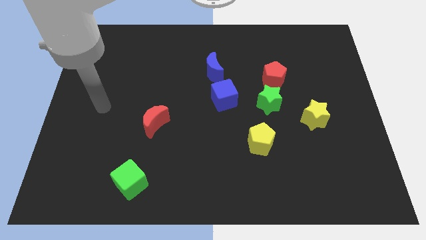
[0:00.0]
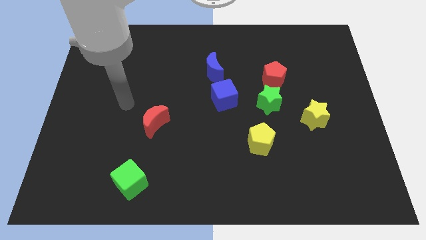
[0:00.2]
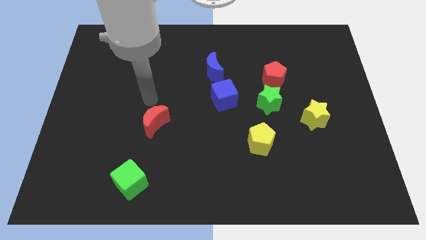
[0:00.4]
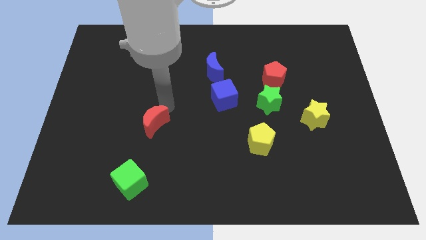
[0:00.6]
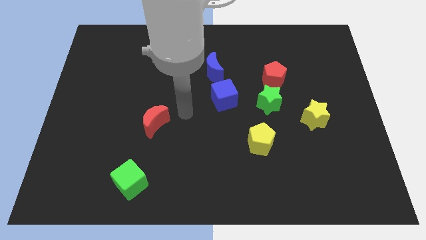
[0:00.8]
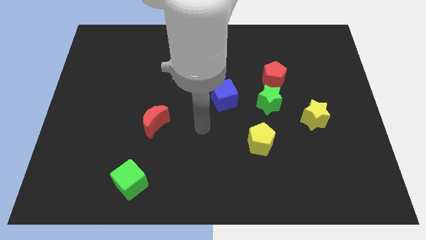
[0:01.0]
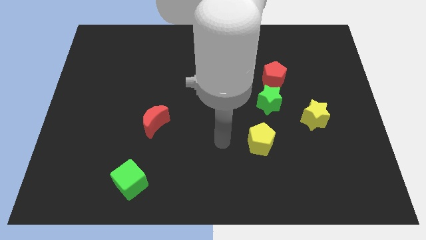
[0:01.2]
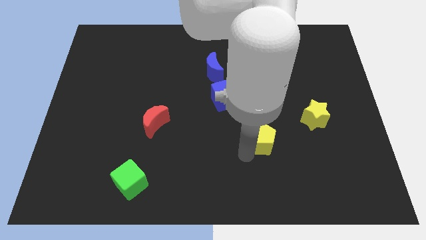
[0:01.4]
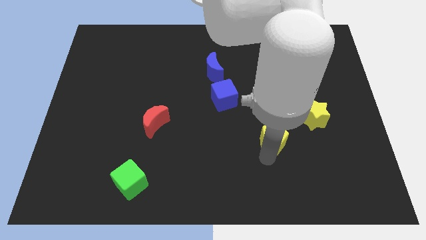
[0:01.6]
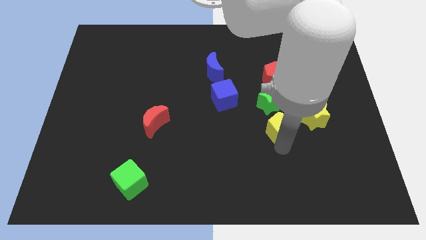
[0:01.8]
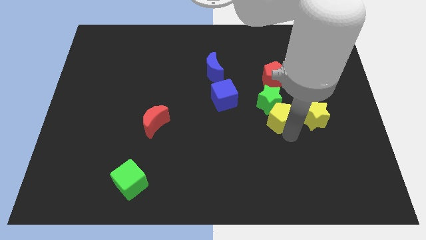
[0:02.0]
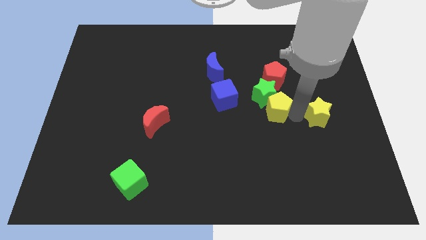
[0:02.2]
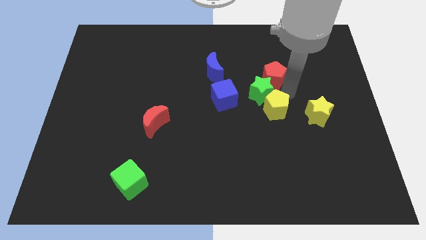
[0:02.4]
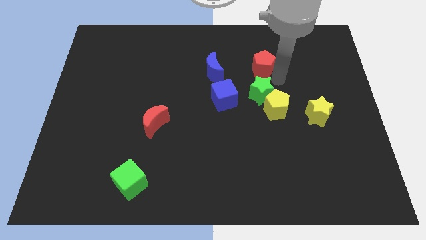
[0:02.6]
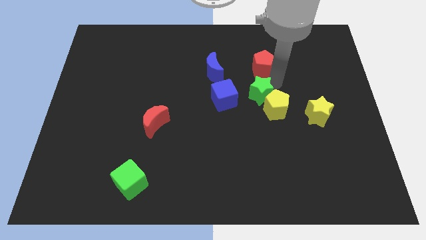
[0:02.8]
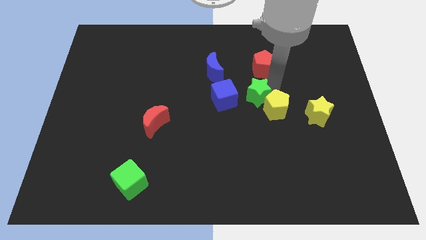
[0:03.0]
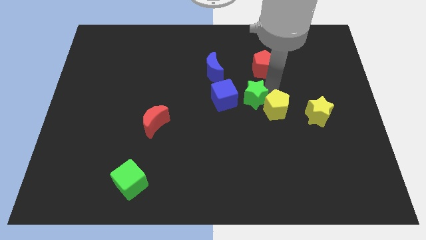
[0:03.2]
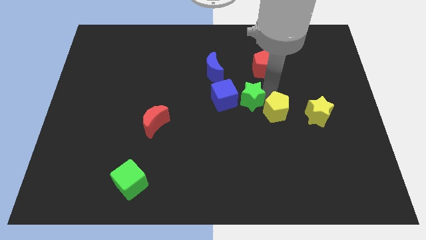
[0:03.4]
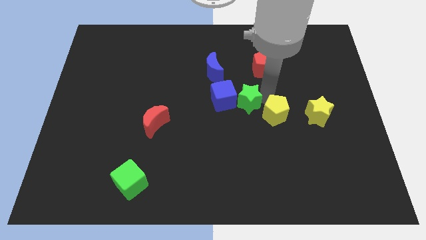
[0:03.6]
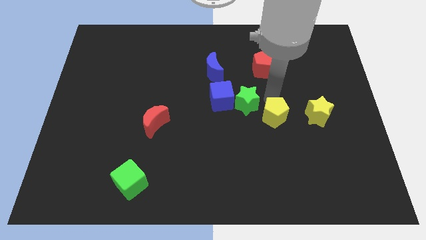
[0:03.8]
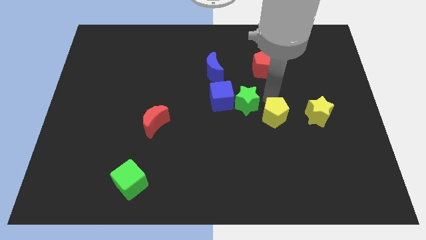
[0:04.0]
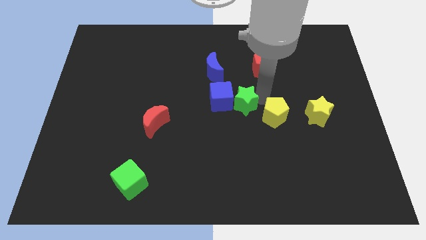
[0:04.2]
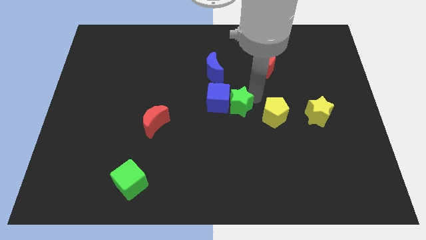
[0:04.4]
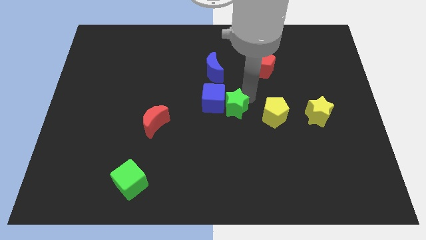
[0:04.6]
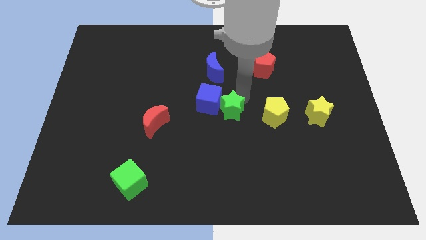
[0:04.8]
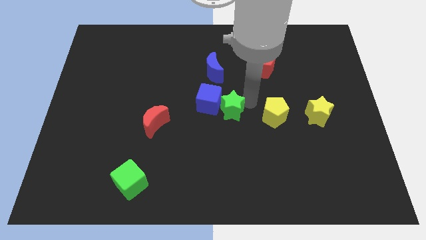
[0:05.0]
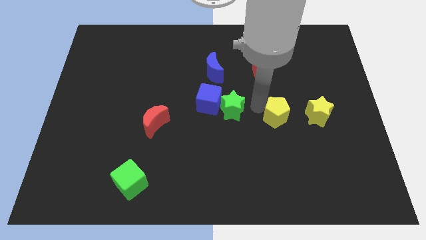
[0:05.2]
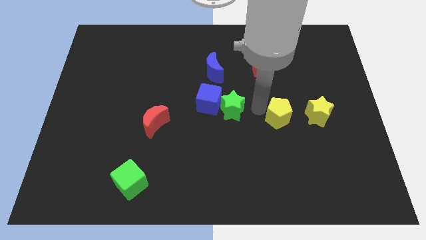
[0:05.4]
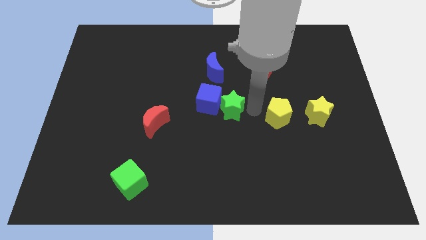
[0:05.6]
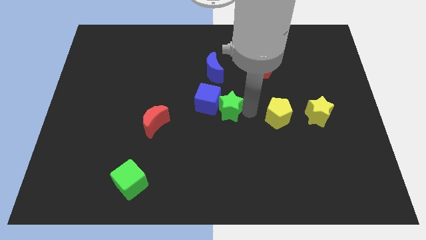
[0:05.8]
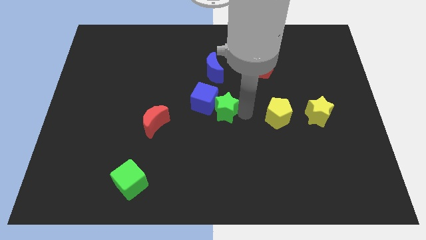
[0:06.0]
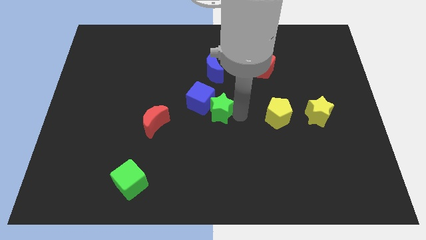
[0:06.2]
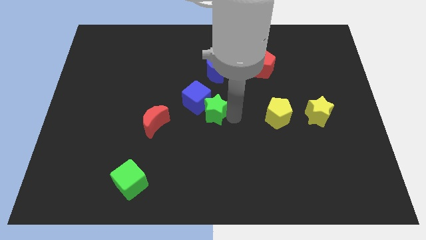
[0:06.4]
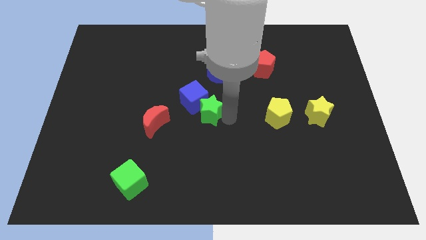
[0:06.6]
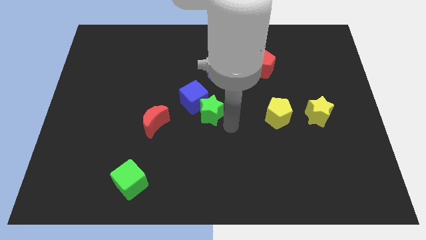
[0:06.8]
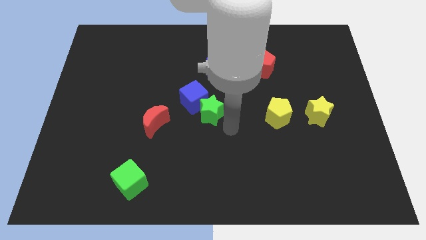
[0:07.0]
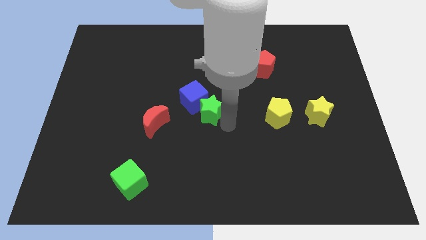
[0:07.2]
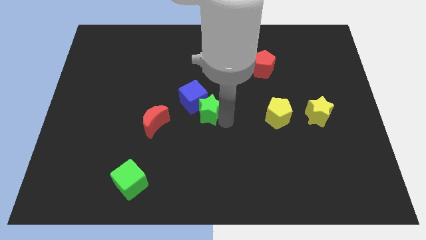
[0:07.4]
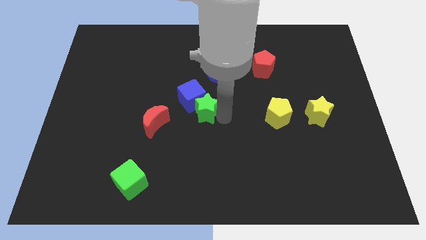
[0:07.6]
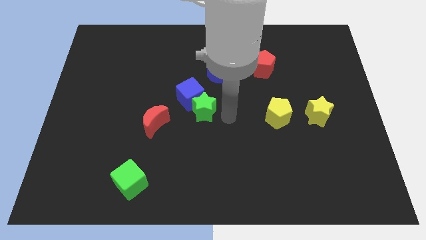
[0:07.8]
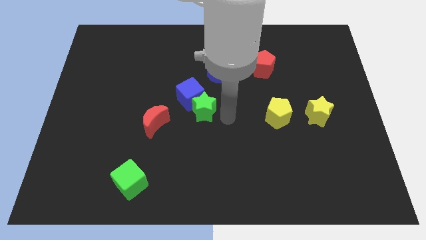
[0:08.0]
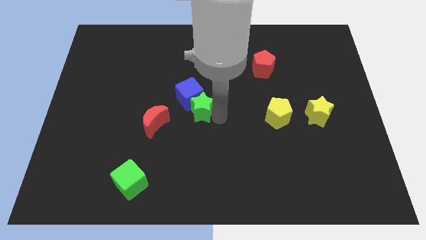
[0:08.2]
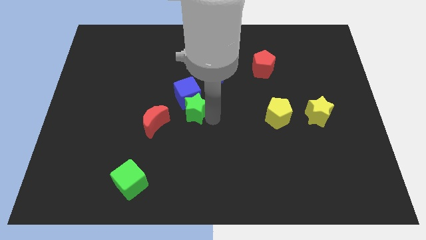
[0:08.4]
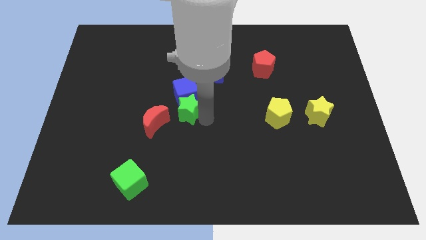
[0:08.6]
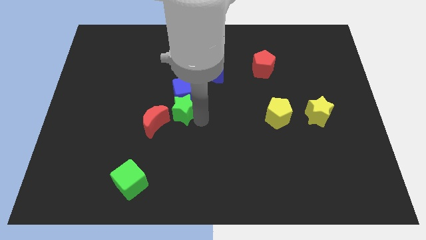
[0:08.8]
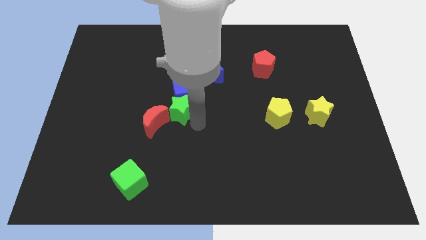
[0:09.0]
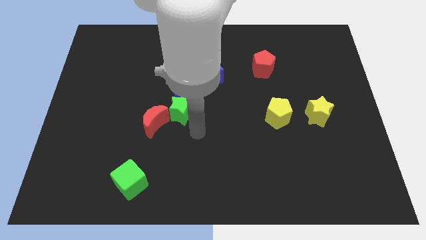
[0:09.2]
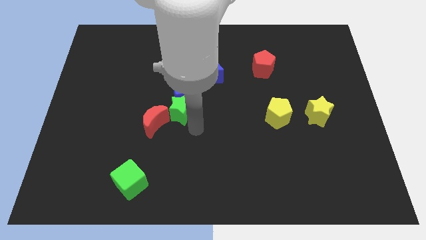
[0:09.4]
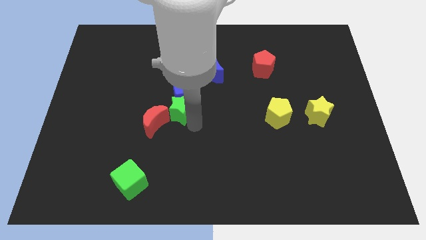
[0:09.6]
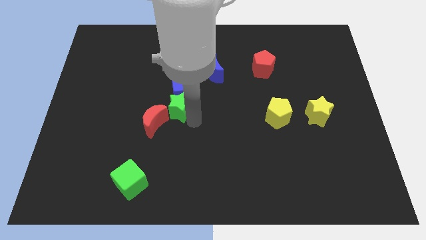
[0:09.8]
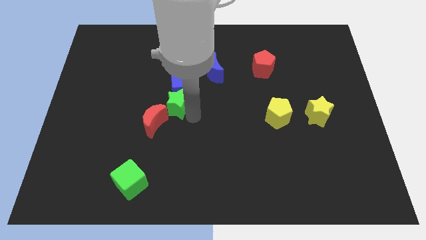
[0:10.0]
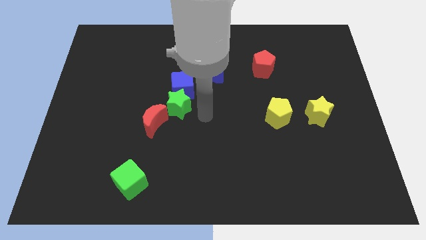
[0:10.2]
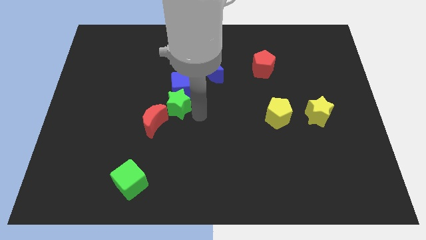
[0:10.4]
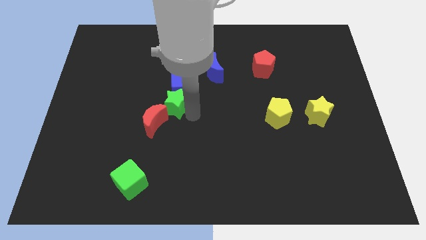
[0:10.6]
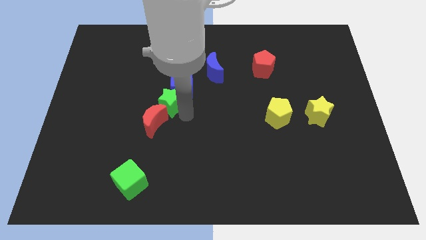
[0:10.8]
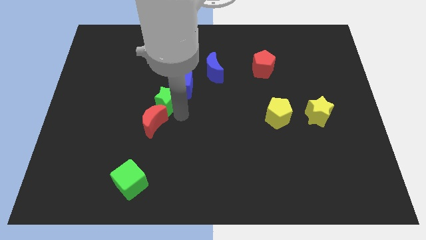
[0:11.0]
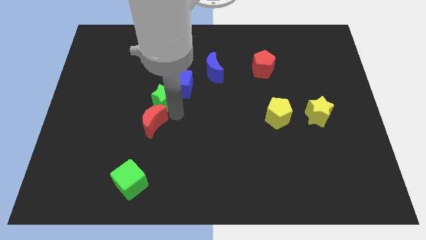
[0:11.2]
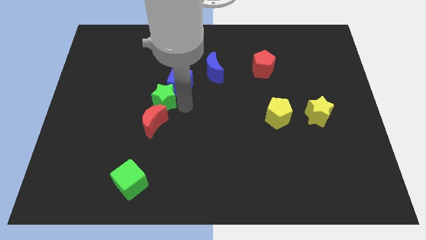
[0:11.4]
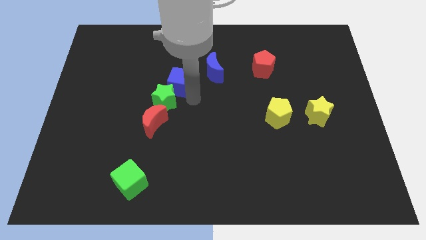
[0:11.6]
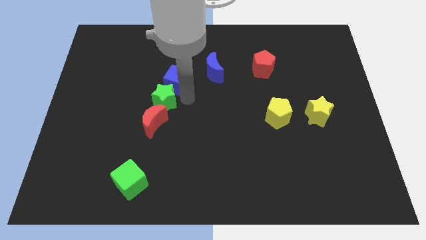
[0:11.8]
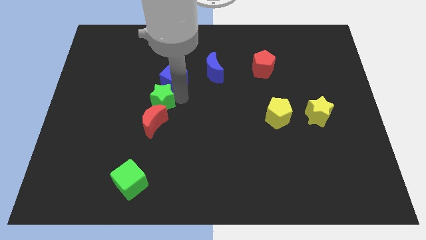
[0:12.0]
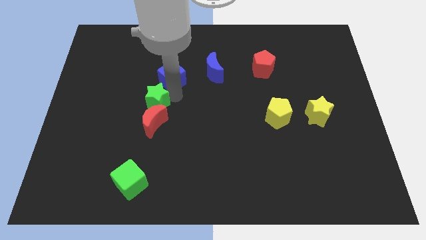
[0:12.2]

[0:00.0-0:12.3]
slide the green star to the top left of the red moon
